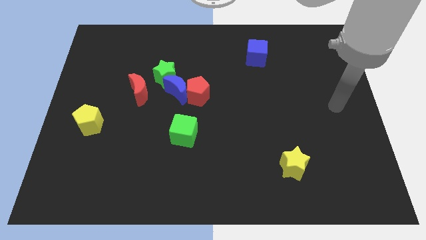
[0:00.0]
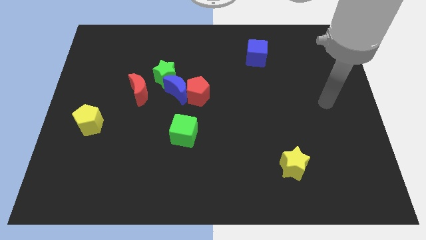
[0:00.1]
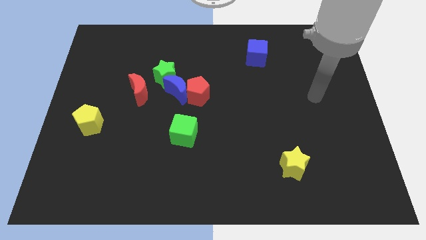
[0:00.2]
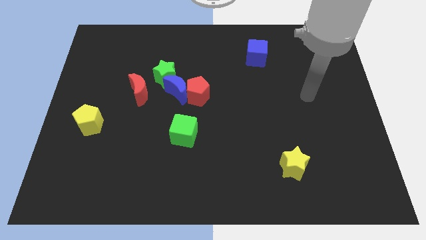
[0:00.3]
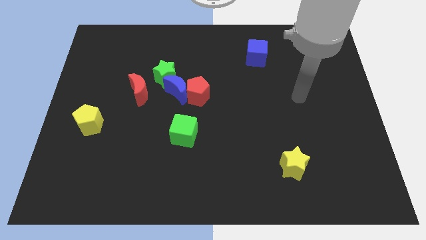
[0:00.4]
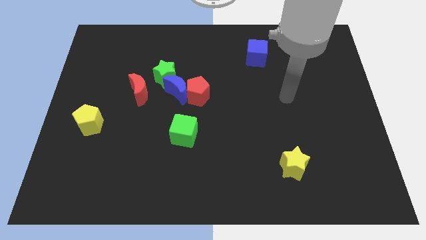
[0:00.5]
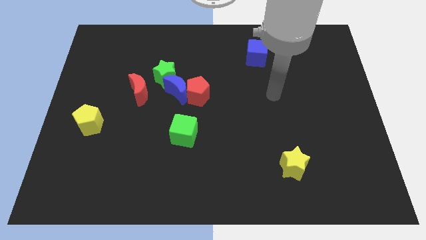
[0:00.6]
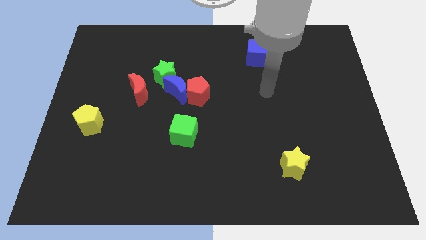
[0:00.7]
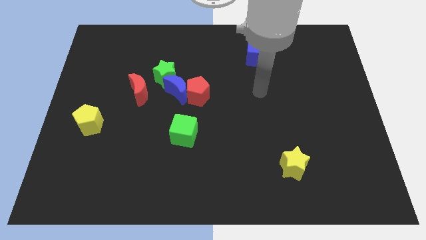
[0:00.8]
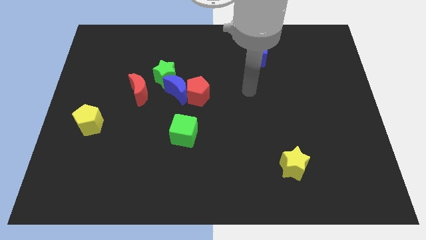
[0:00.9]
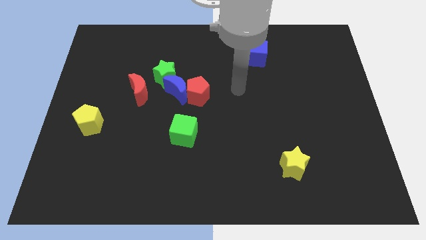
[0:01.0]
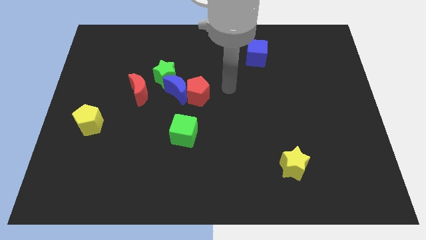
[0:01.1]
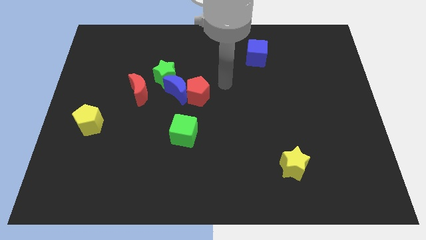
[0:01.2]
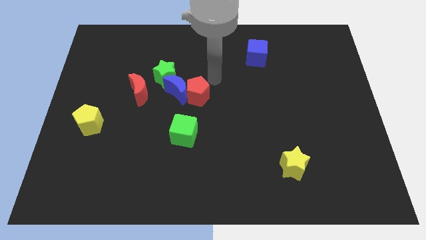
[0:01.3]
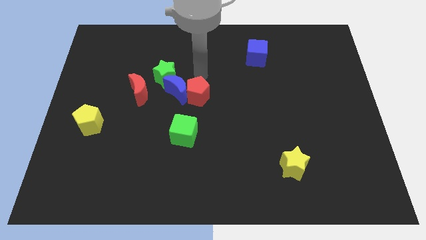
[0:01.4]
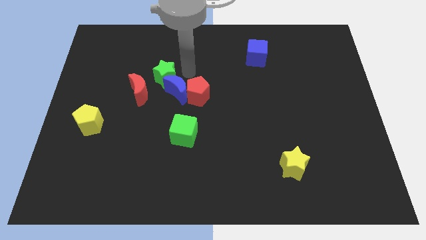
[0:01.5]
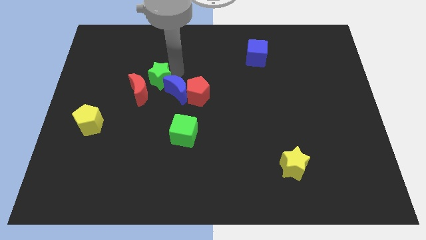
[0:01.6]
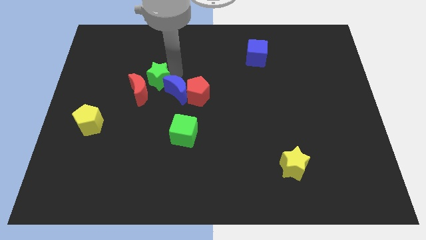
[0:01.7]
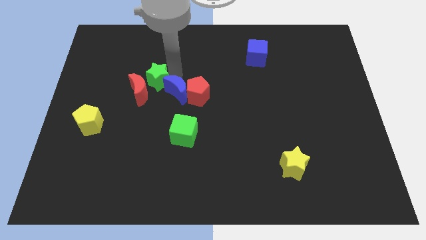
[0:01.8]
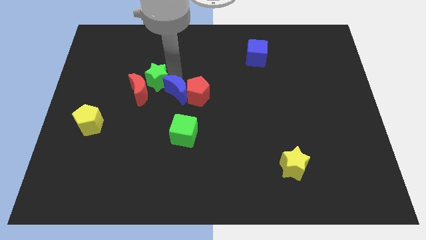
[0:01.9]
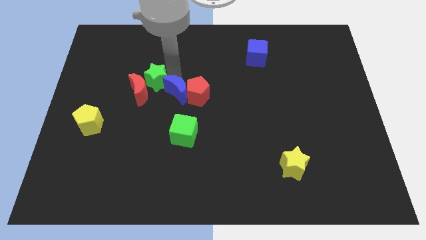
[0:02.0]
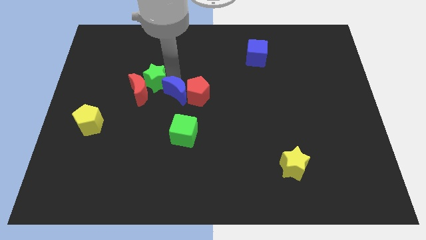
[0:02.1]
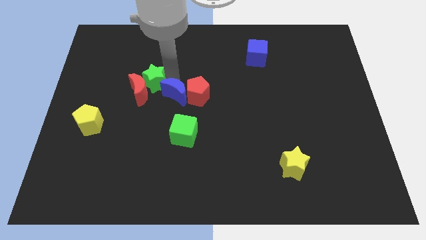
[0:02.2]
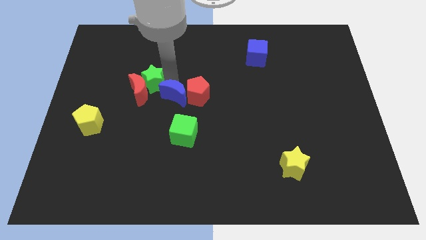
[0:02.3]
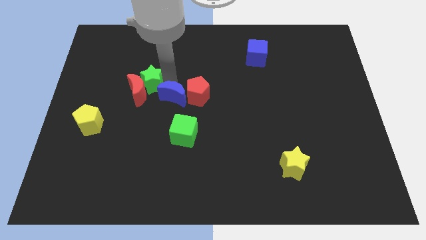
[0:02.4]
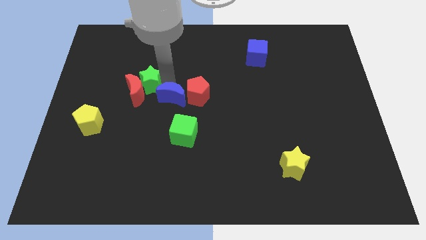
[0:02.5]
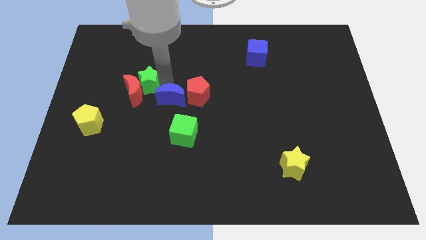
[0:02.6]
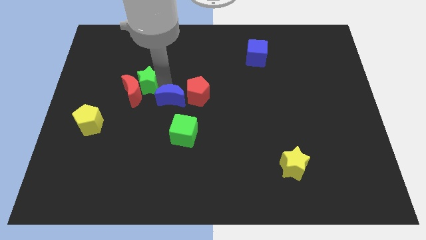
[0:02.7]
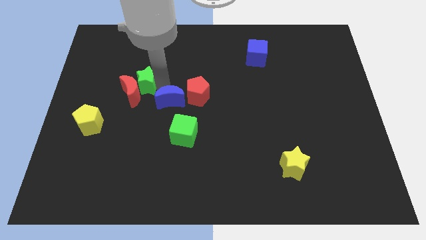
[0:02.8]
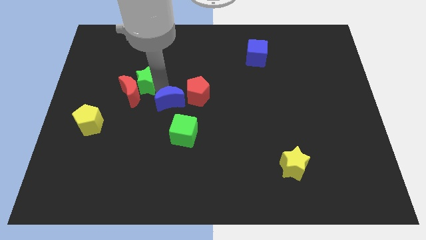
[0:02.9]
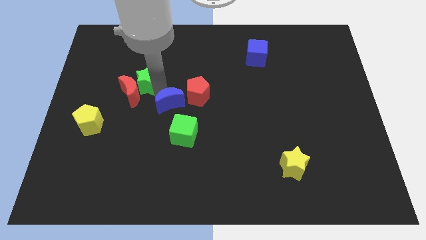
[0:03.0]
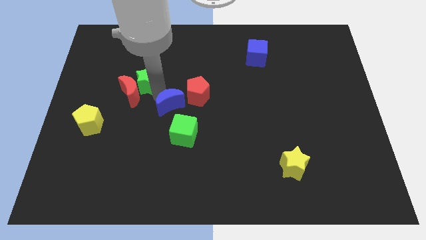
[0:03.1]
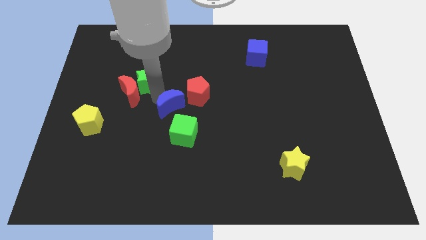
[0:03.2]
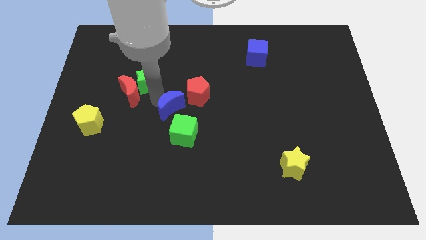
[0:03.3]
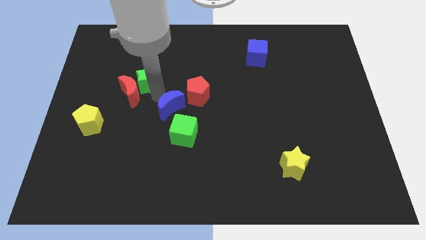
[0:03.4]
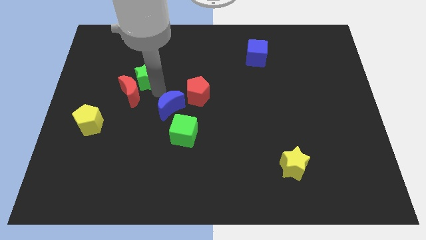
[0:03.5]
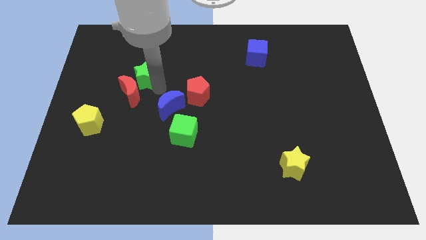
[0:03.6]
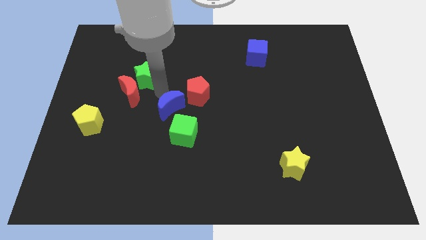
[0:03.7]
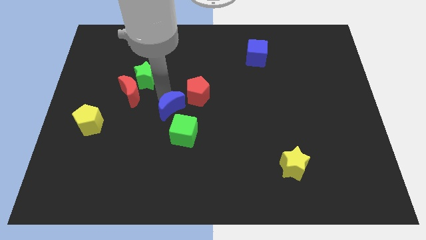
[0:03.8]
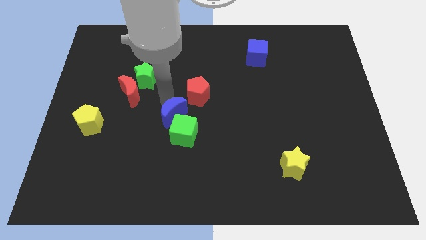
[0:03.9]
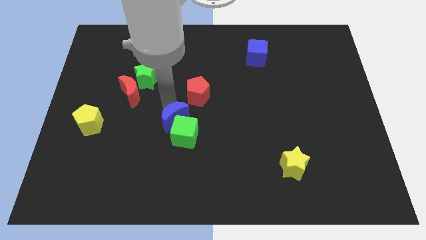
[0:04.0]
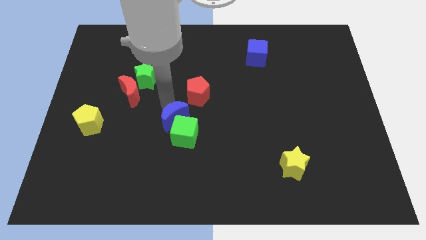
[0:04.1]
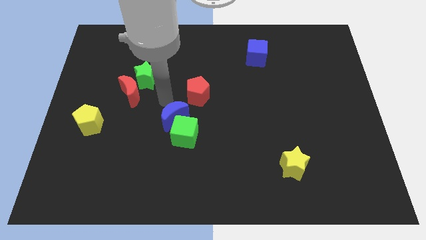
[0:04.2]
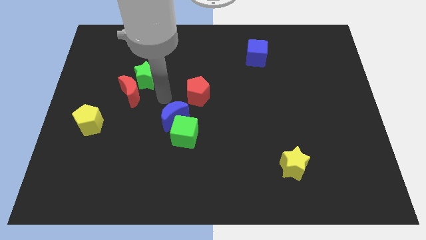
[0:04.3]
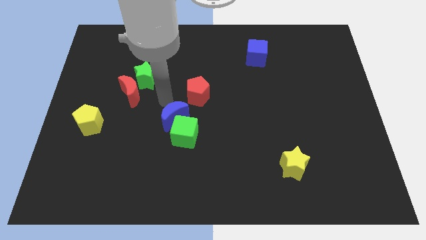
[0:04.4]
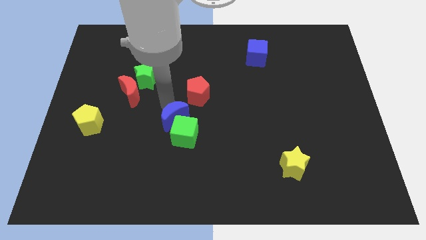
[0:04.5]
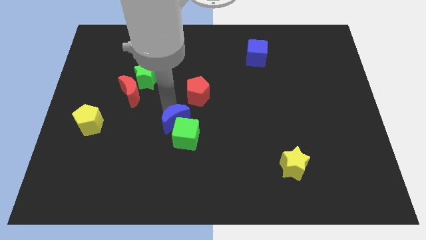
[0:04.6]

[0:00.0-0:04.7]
separate the blue moon from the group

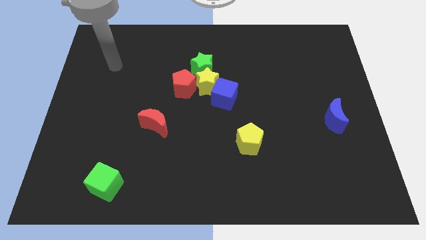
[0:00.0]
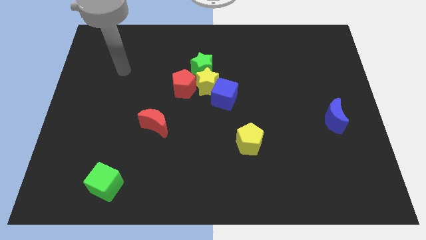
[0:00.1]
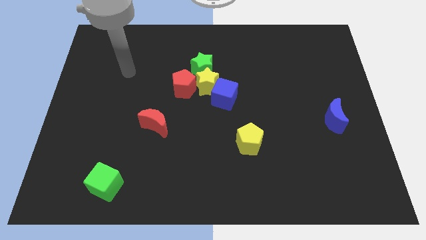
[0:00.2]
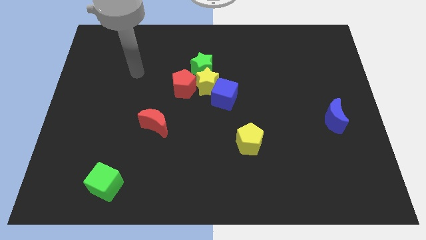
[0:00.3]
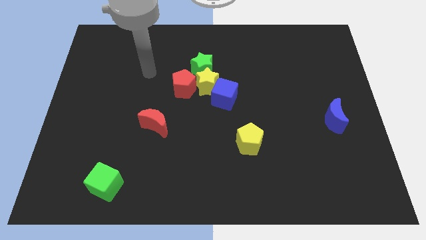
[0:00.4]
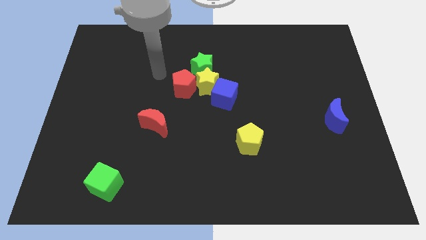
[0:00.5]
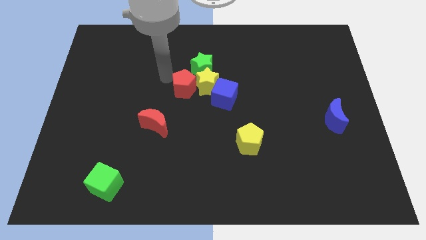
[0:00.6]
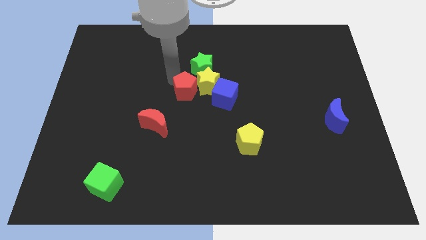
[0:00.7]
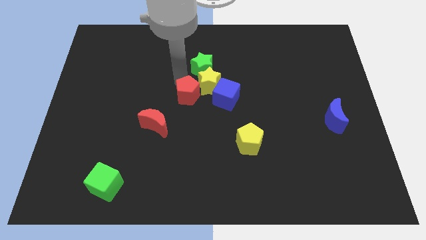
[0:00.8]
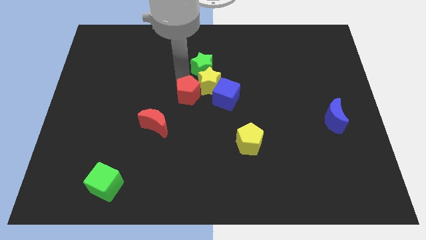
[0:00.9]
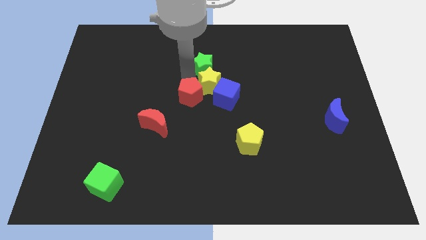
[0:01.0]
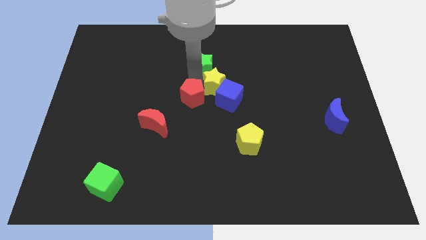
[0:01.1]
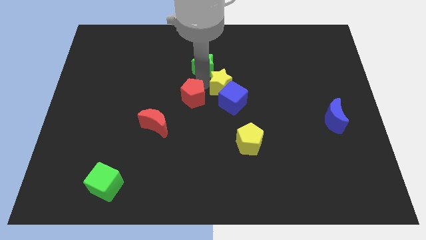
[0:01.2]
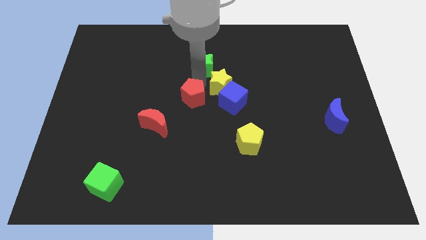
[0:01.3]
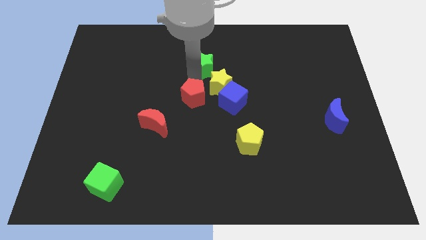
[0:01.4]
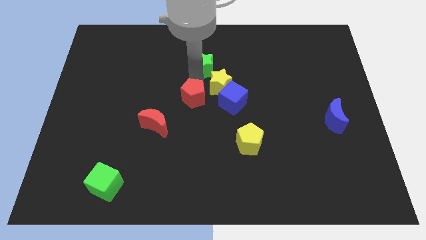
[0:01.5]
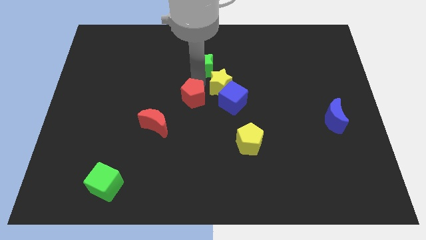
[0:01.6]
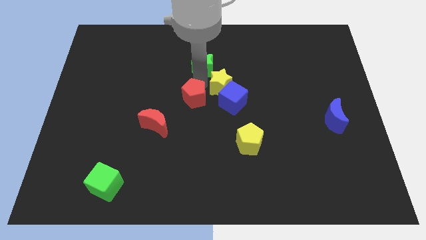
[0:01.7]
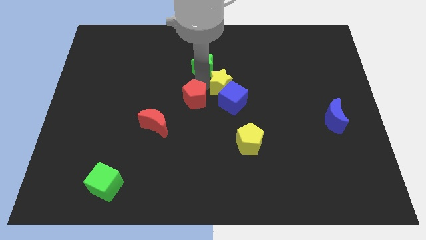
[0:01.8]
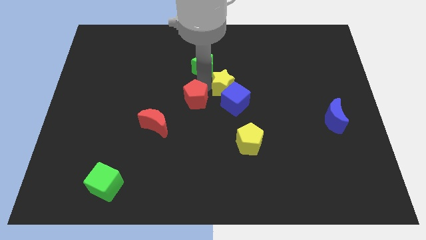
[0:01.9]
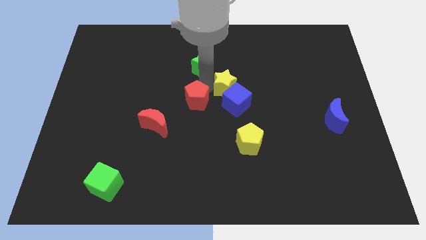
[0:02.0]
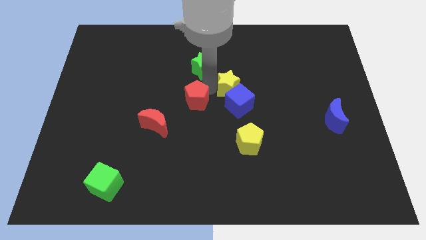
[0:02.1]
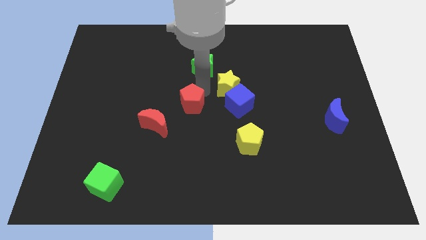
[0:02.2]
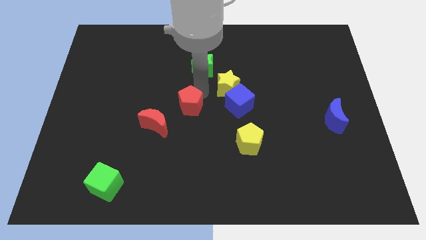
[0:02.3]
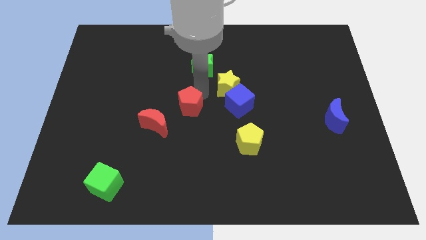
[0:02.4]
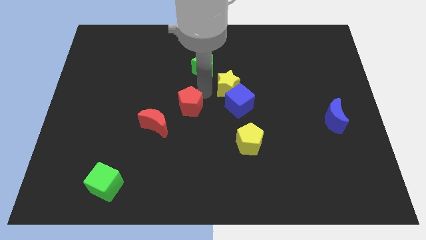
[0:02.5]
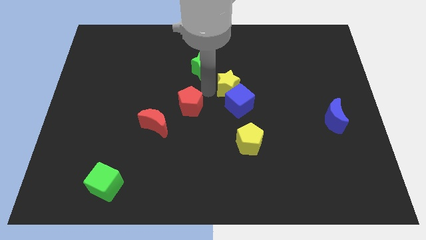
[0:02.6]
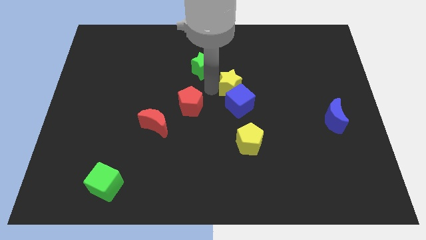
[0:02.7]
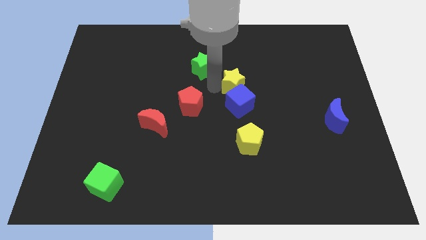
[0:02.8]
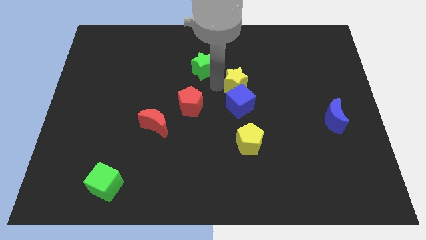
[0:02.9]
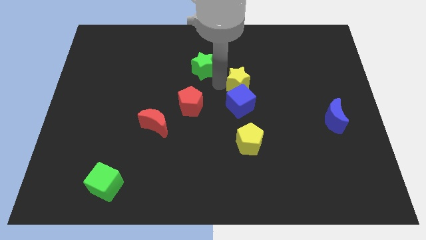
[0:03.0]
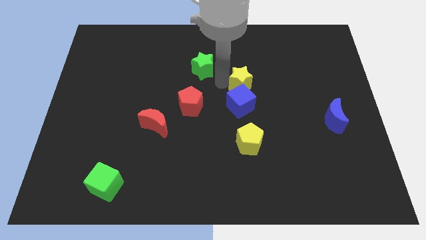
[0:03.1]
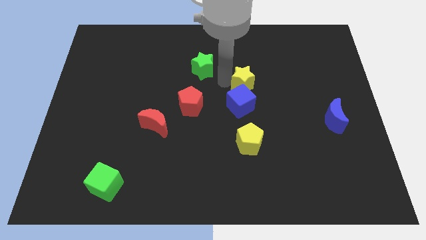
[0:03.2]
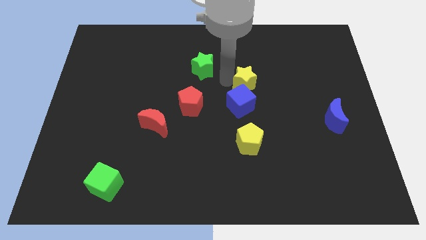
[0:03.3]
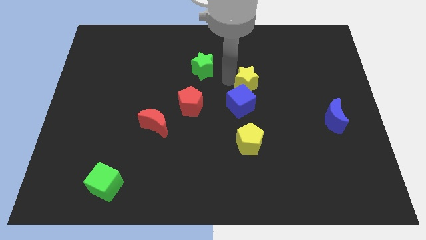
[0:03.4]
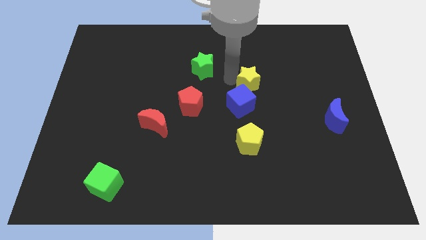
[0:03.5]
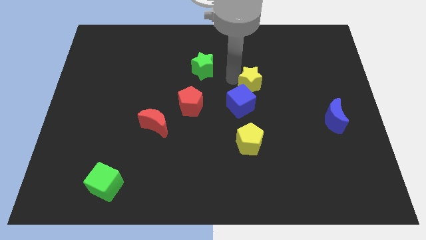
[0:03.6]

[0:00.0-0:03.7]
move the yellow star away from the group of blocks

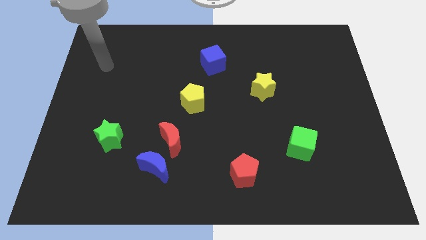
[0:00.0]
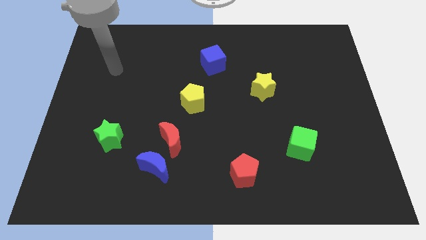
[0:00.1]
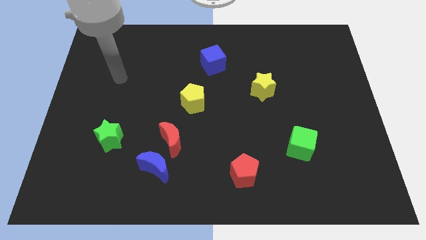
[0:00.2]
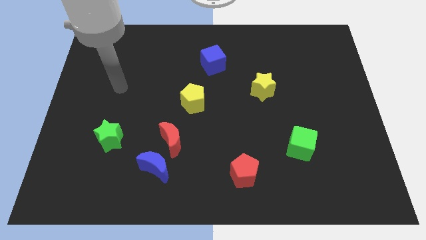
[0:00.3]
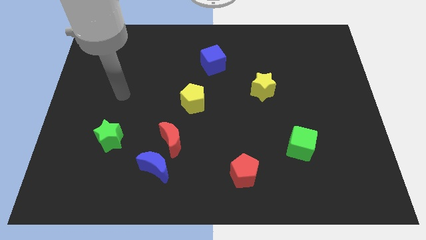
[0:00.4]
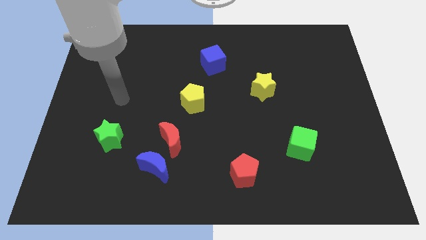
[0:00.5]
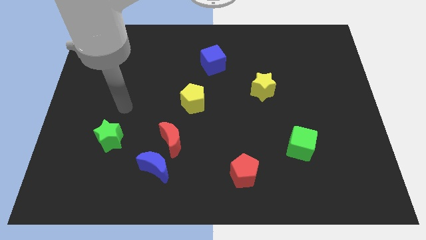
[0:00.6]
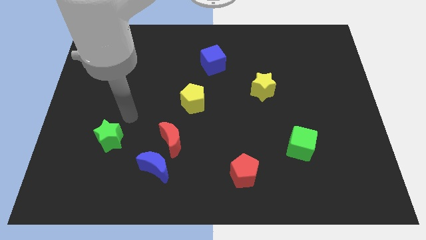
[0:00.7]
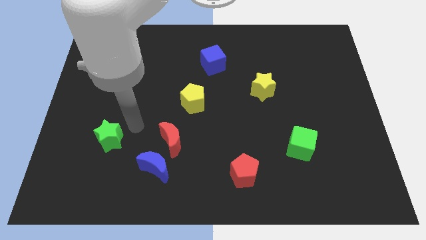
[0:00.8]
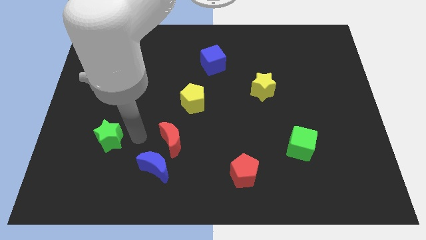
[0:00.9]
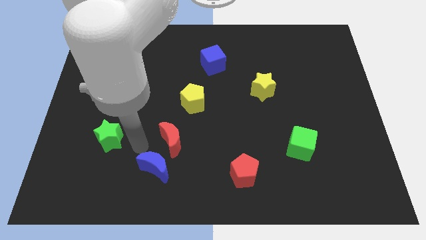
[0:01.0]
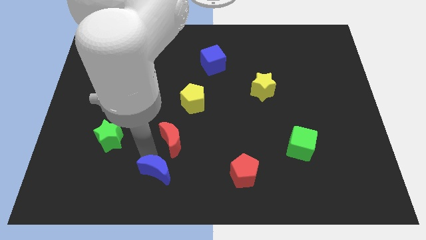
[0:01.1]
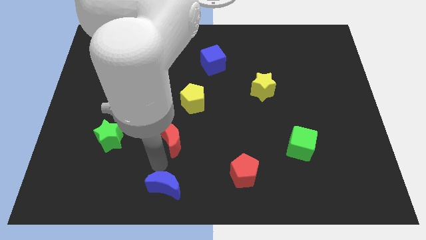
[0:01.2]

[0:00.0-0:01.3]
separate the red moon from the blue moon
